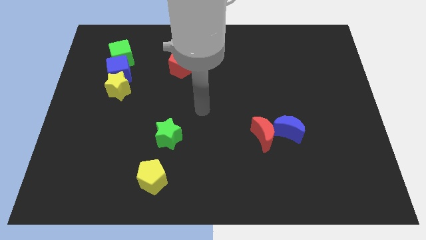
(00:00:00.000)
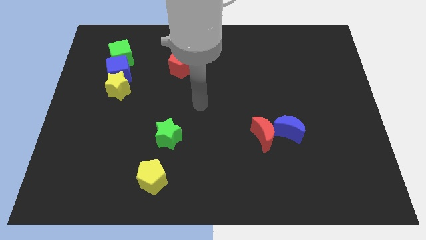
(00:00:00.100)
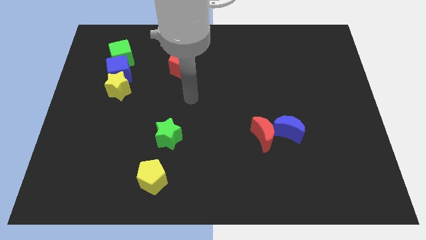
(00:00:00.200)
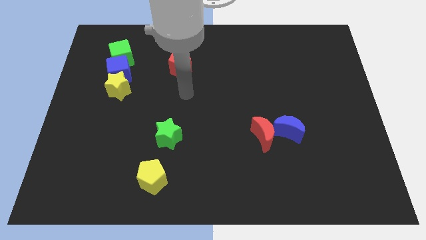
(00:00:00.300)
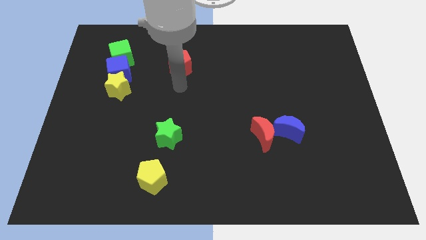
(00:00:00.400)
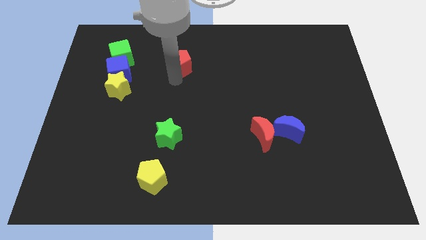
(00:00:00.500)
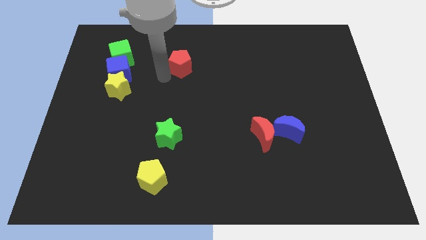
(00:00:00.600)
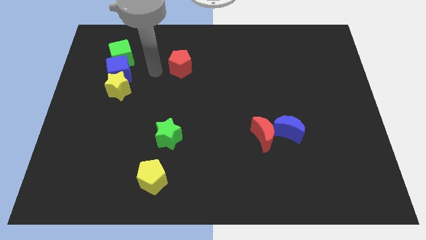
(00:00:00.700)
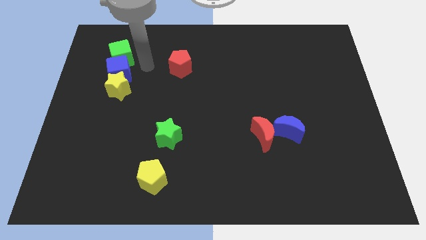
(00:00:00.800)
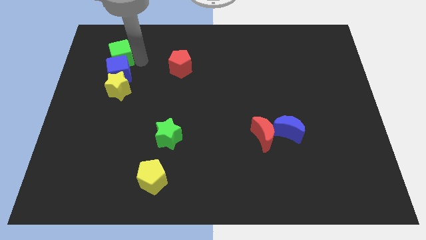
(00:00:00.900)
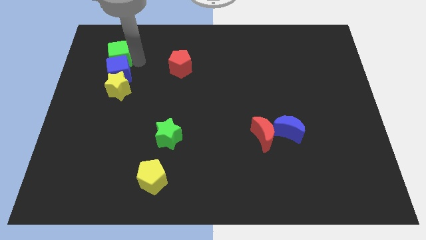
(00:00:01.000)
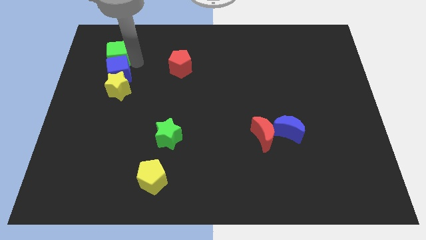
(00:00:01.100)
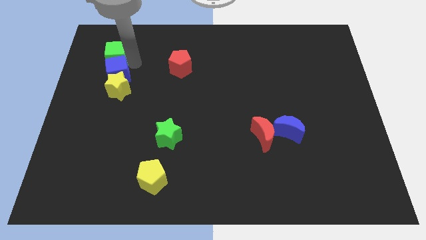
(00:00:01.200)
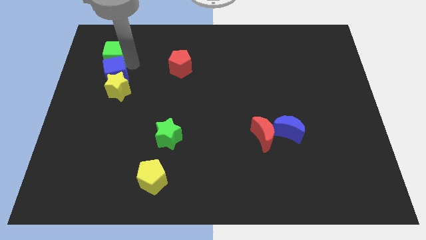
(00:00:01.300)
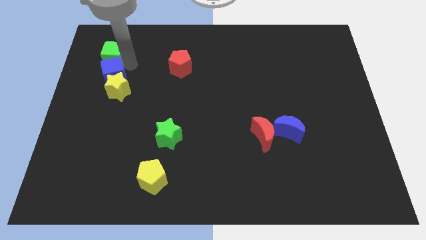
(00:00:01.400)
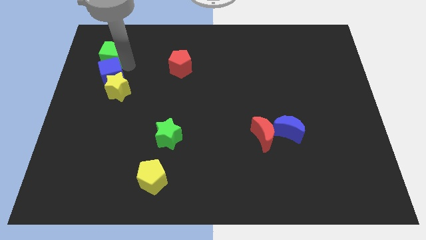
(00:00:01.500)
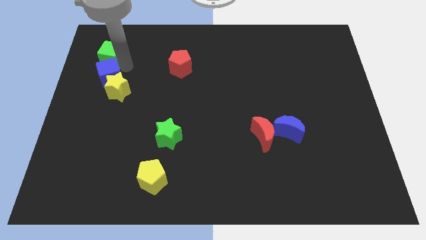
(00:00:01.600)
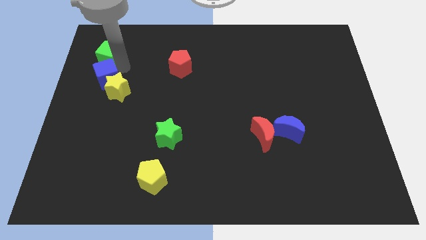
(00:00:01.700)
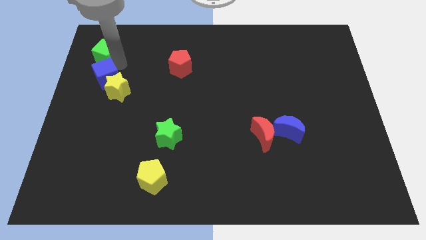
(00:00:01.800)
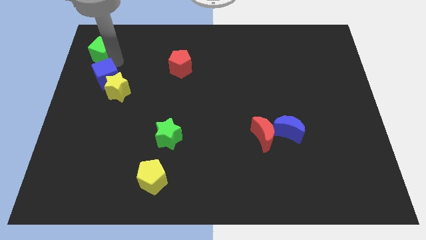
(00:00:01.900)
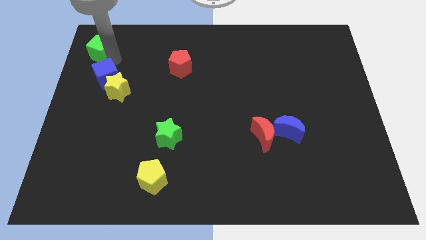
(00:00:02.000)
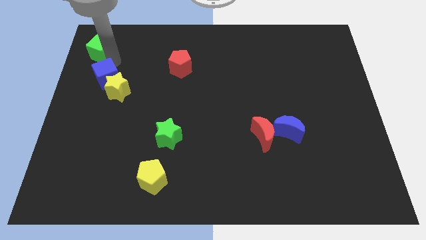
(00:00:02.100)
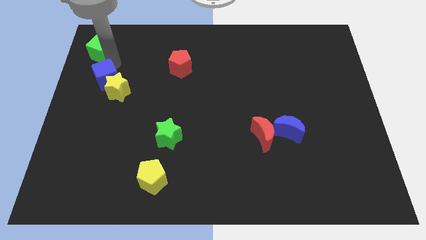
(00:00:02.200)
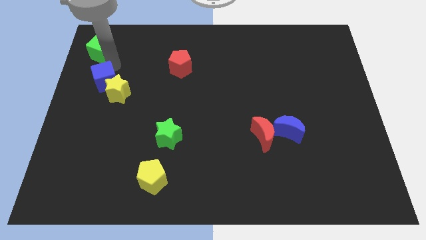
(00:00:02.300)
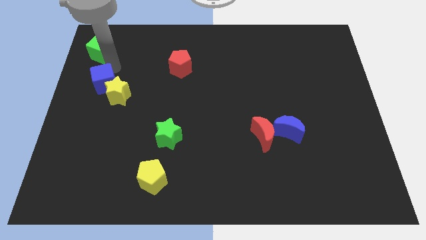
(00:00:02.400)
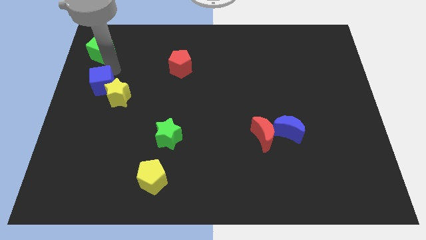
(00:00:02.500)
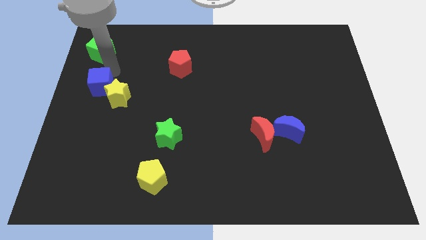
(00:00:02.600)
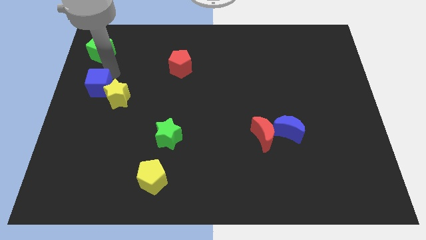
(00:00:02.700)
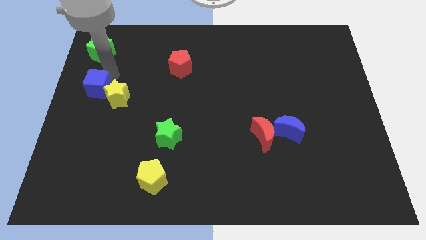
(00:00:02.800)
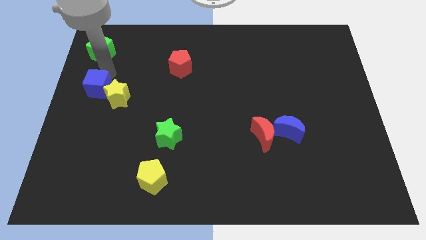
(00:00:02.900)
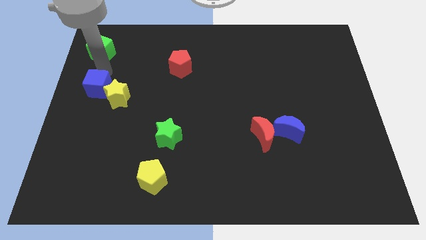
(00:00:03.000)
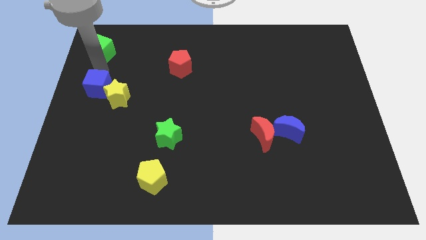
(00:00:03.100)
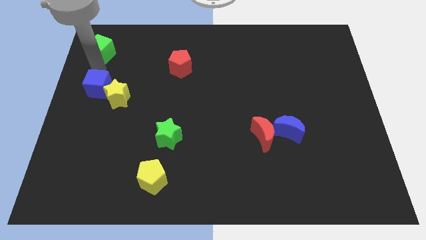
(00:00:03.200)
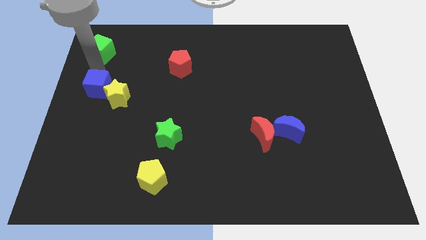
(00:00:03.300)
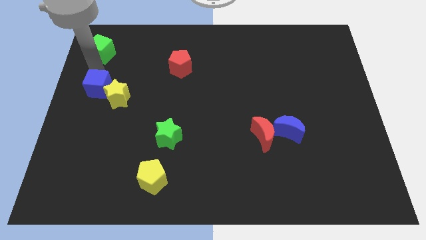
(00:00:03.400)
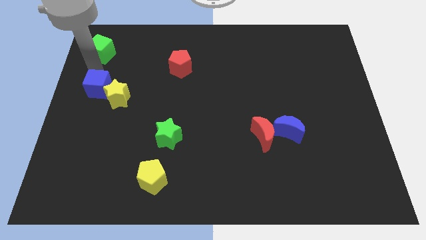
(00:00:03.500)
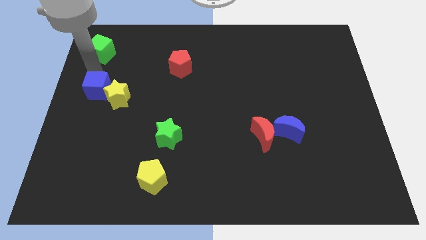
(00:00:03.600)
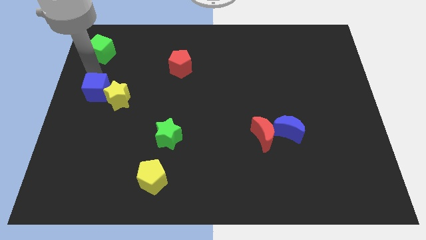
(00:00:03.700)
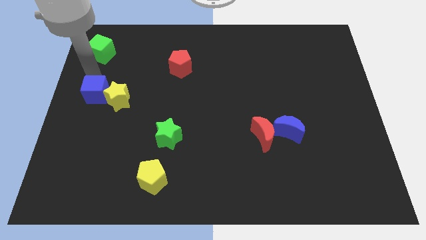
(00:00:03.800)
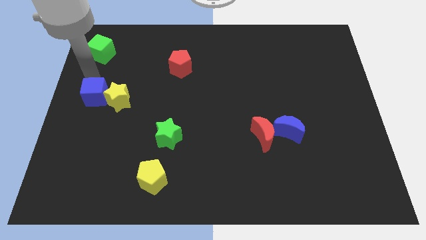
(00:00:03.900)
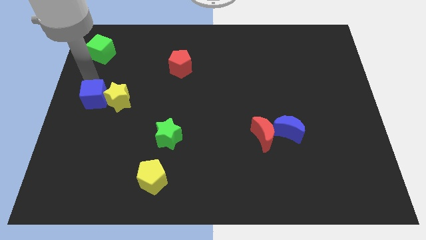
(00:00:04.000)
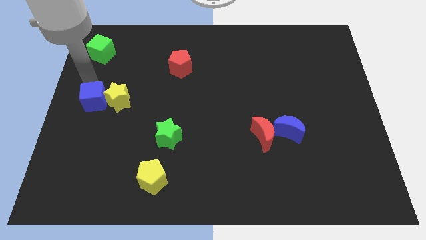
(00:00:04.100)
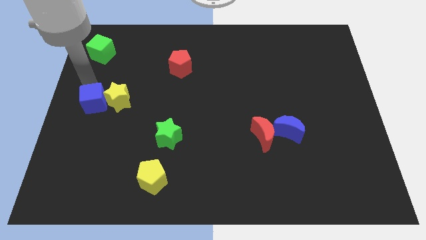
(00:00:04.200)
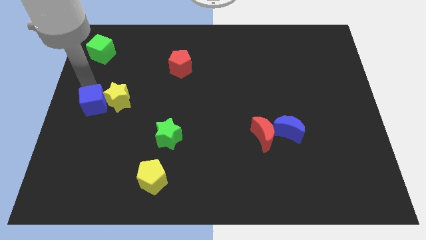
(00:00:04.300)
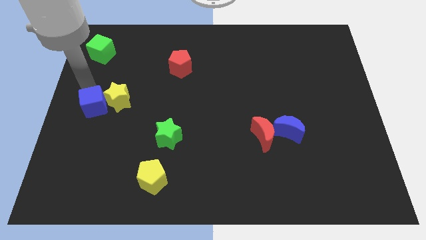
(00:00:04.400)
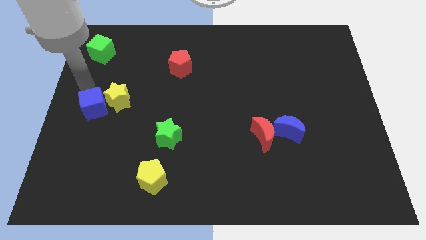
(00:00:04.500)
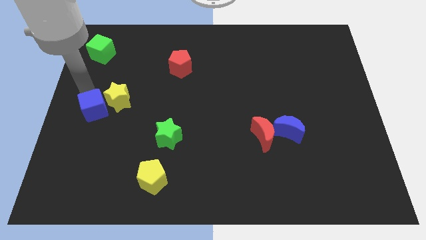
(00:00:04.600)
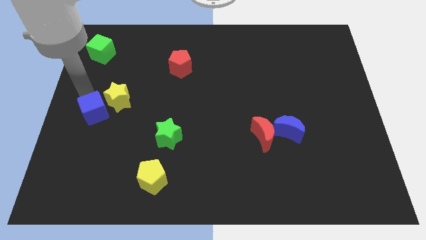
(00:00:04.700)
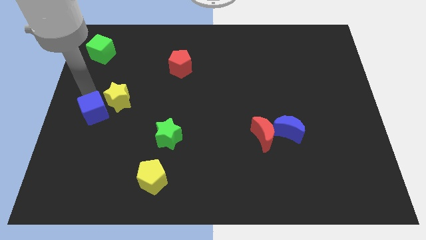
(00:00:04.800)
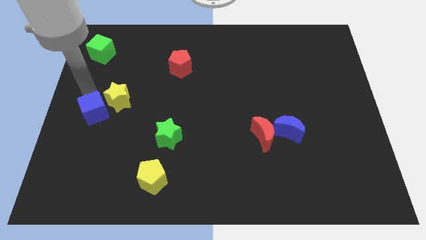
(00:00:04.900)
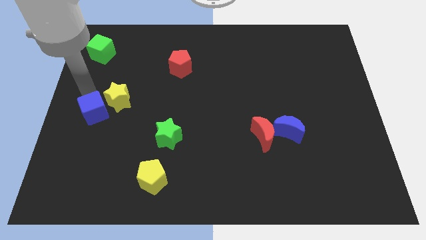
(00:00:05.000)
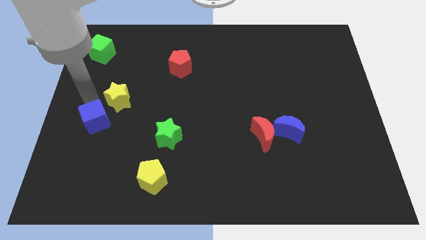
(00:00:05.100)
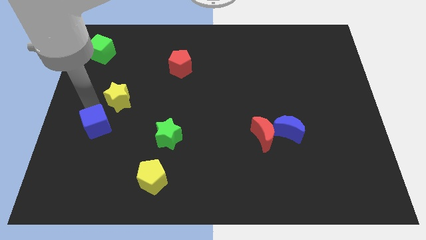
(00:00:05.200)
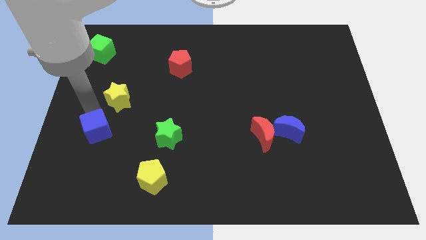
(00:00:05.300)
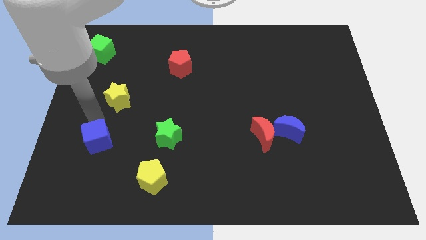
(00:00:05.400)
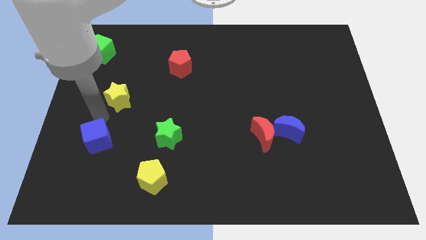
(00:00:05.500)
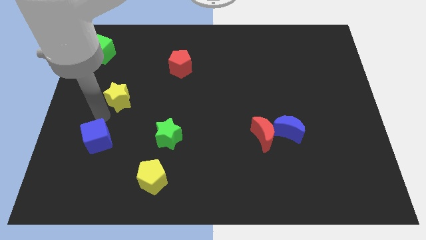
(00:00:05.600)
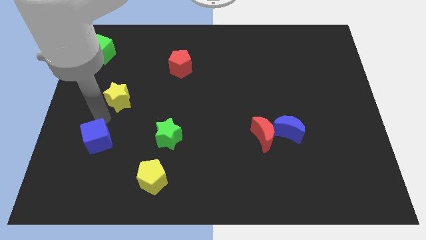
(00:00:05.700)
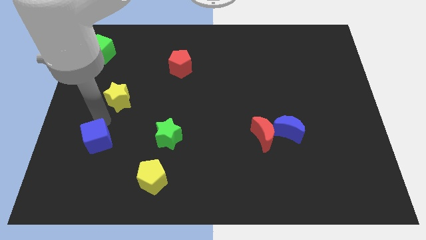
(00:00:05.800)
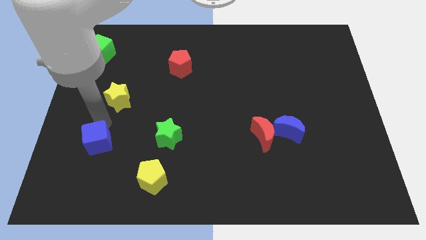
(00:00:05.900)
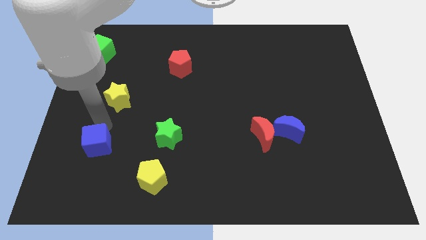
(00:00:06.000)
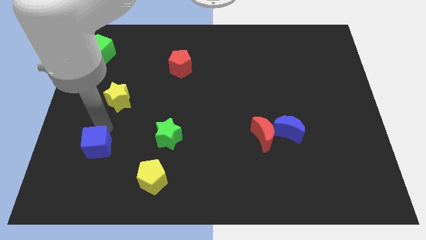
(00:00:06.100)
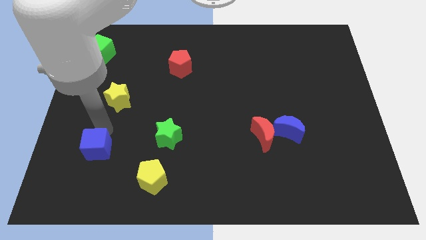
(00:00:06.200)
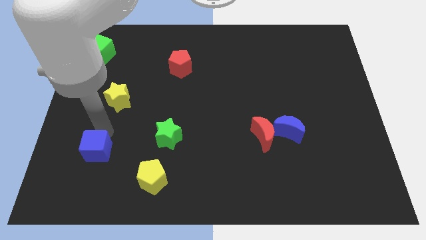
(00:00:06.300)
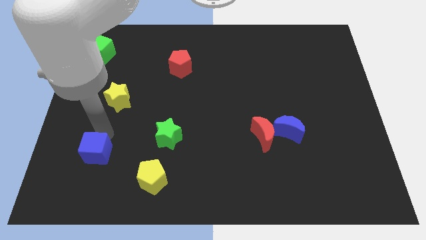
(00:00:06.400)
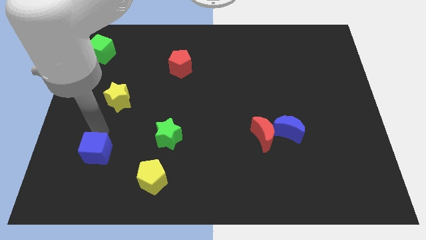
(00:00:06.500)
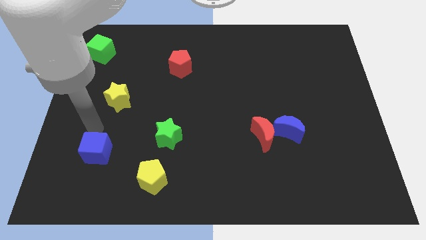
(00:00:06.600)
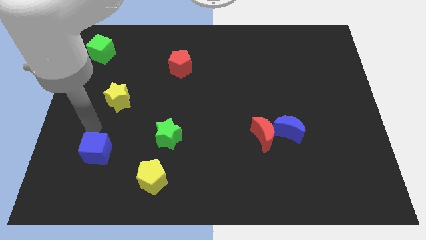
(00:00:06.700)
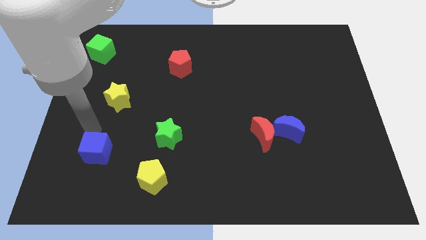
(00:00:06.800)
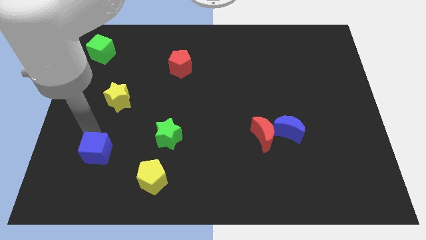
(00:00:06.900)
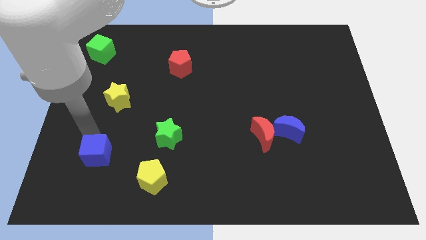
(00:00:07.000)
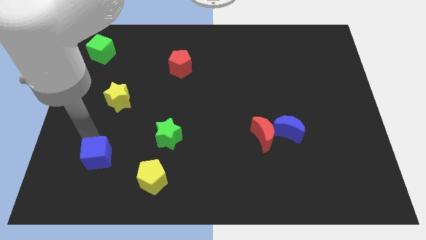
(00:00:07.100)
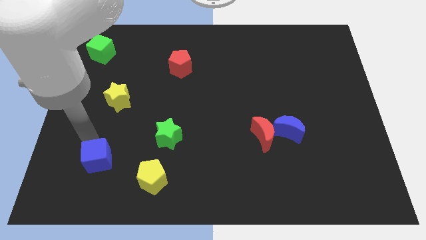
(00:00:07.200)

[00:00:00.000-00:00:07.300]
move the blue cube just left of the yellow pentagon
